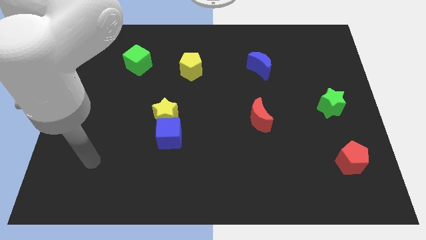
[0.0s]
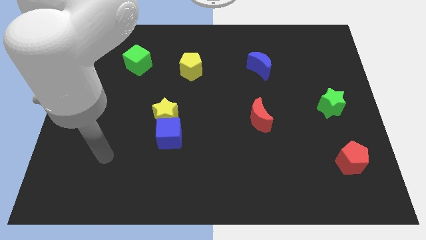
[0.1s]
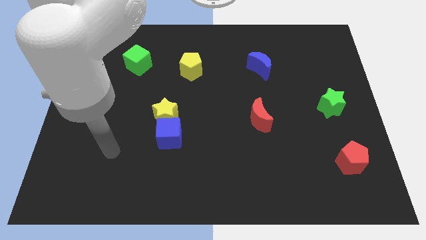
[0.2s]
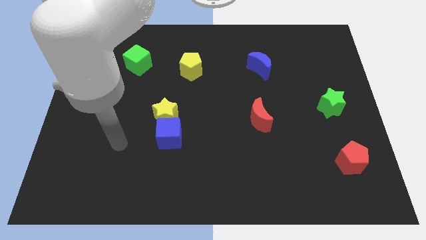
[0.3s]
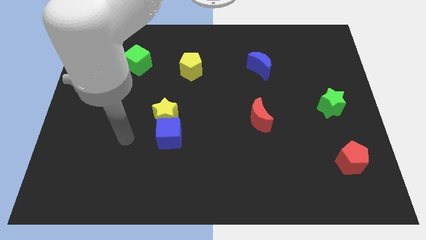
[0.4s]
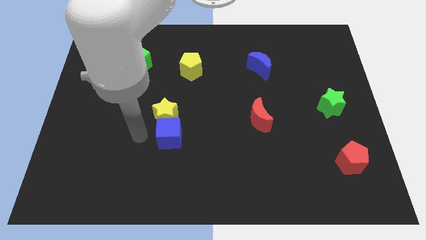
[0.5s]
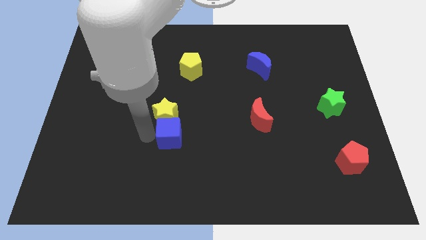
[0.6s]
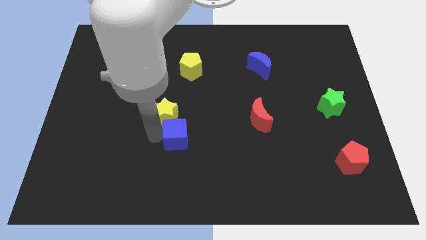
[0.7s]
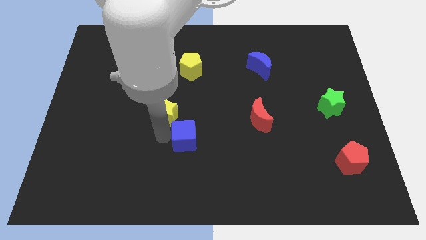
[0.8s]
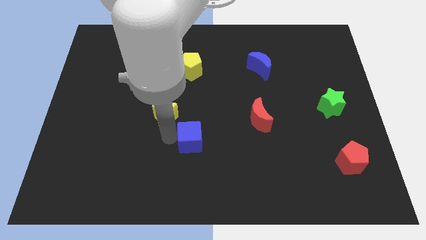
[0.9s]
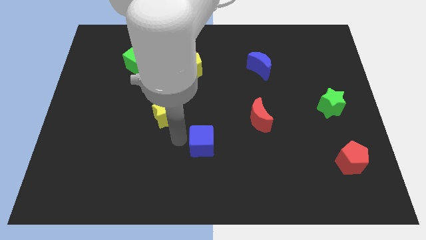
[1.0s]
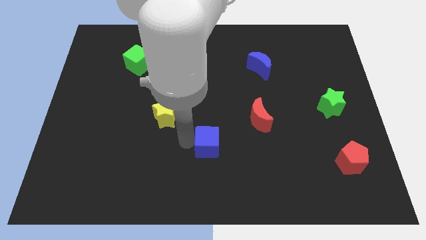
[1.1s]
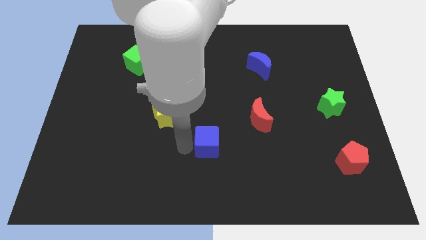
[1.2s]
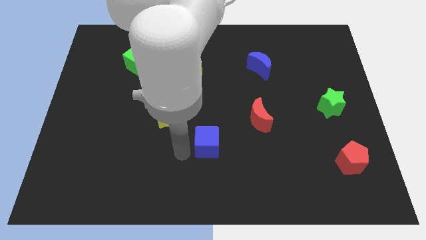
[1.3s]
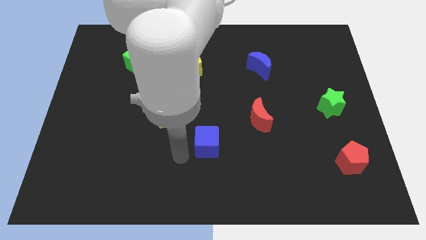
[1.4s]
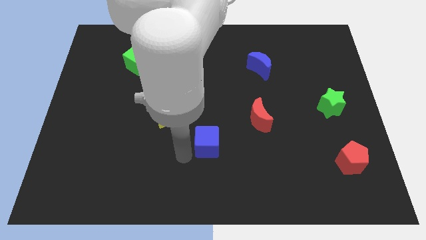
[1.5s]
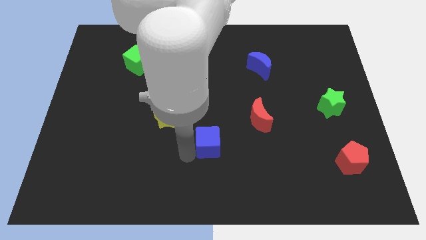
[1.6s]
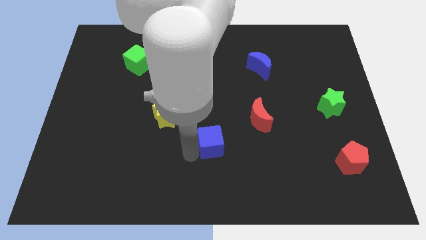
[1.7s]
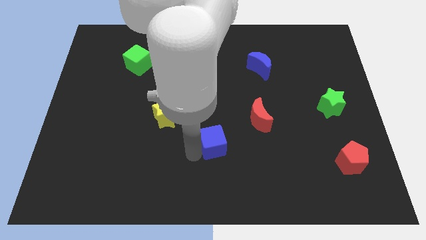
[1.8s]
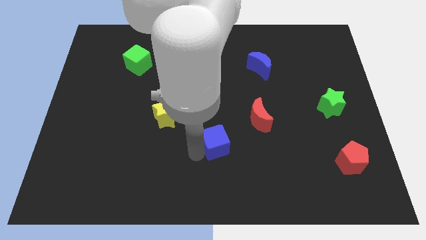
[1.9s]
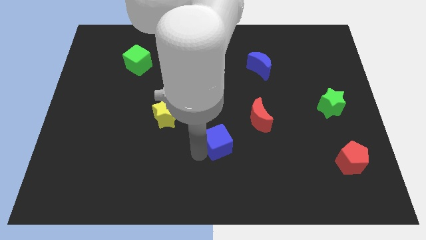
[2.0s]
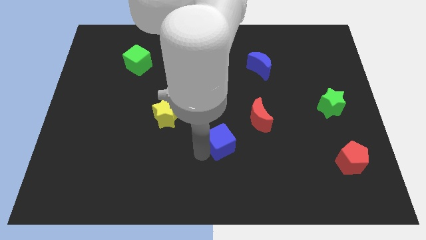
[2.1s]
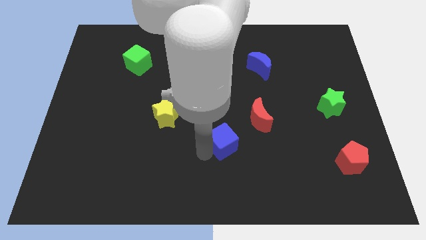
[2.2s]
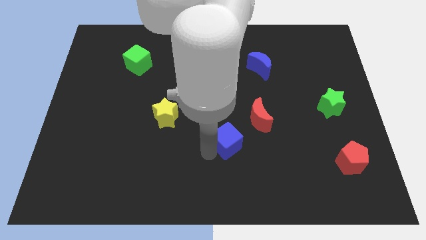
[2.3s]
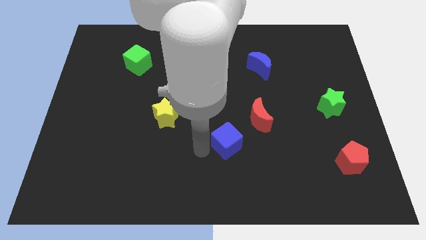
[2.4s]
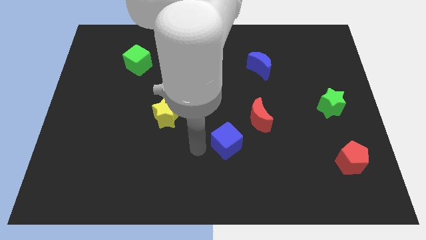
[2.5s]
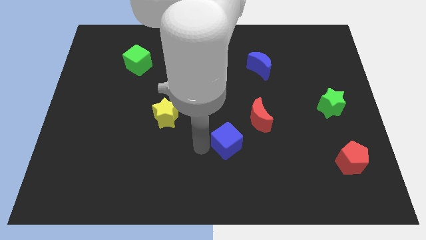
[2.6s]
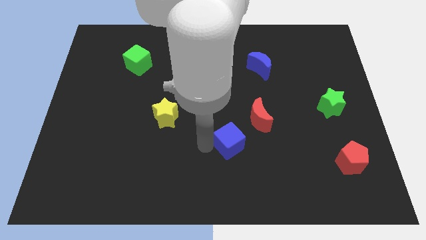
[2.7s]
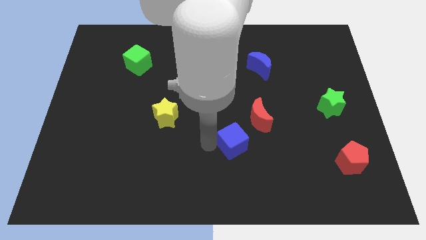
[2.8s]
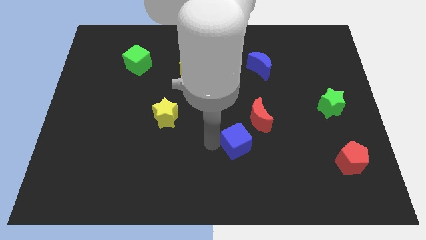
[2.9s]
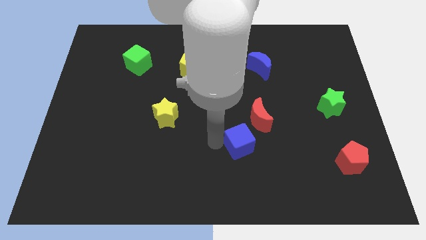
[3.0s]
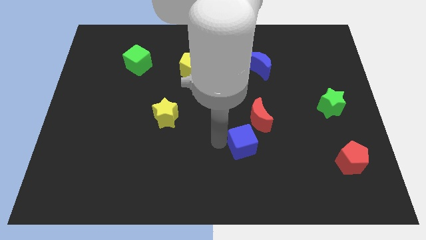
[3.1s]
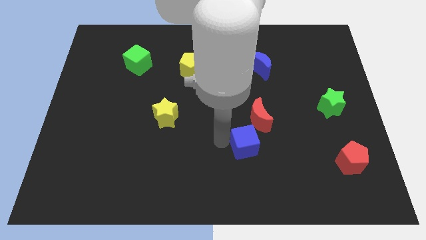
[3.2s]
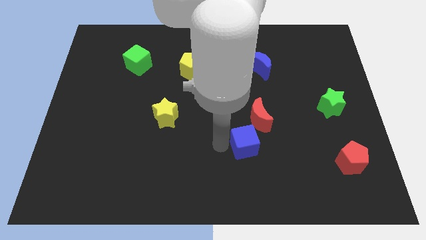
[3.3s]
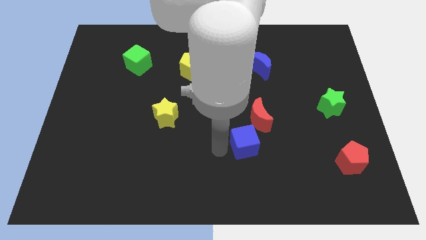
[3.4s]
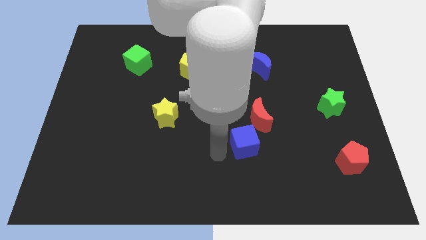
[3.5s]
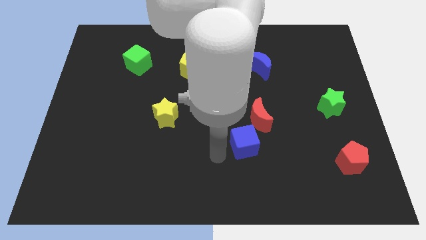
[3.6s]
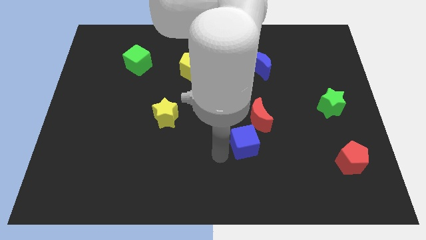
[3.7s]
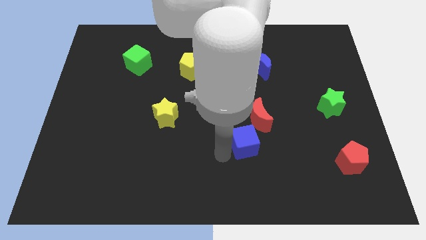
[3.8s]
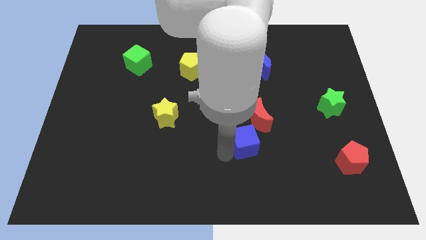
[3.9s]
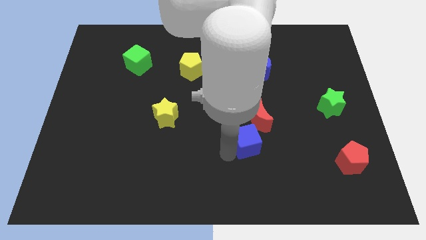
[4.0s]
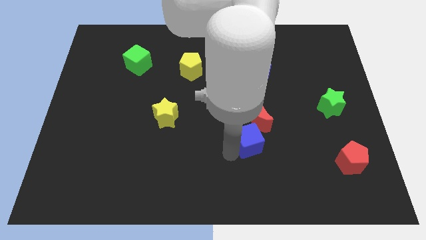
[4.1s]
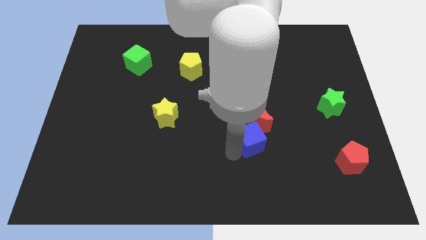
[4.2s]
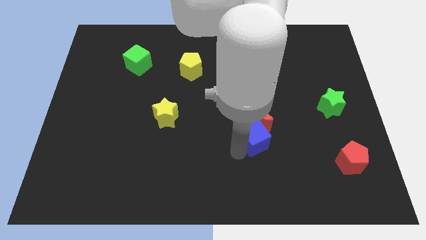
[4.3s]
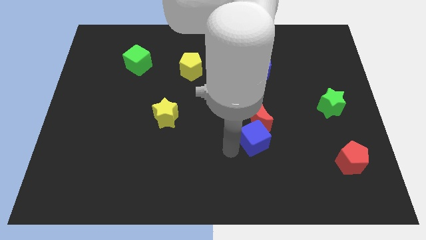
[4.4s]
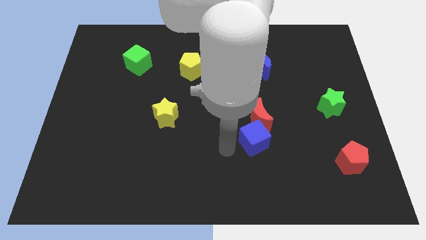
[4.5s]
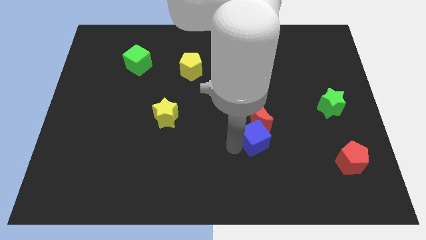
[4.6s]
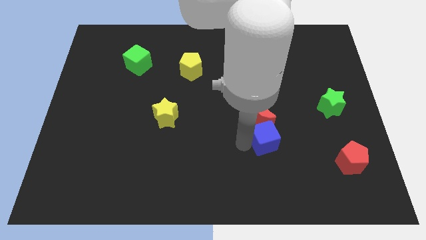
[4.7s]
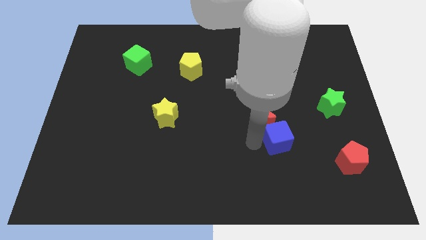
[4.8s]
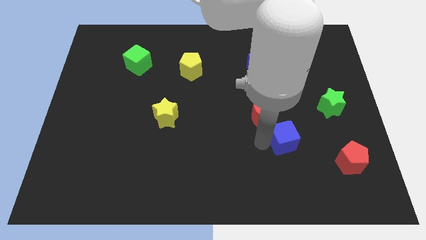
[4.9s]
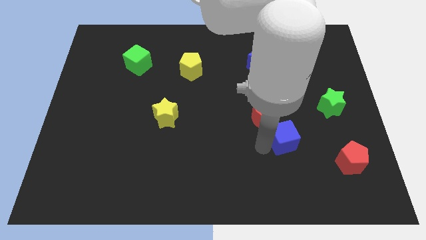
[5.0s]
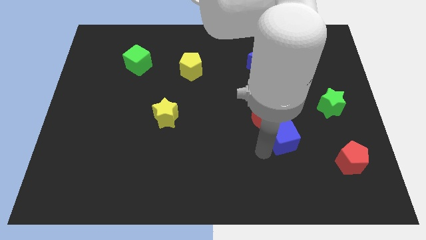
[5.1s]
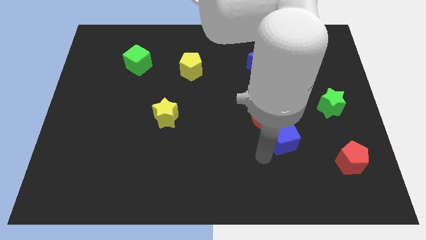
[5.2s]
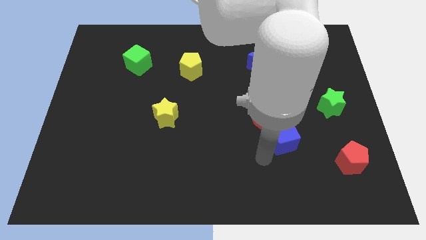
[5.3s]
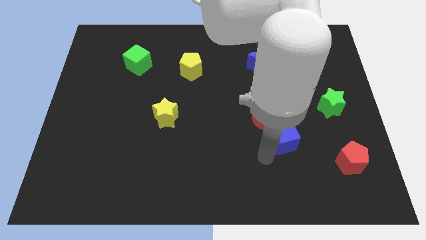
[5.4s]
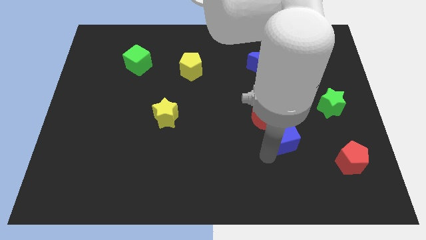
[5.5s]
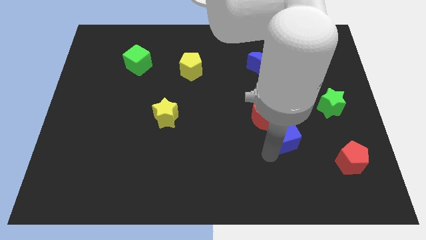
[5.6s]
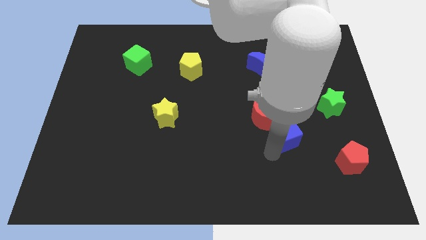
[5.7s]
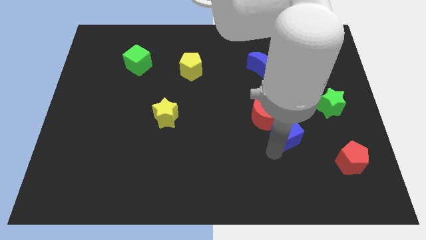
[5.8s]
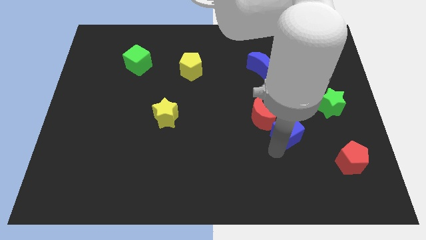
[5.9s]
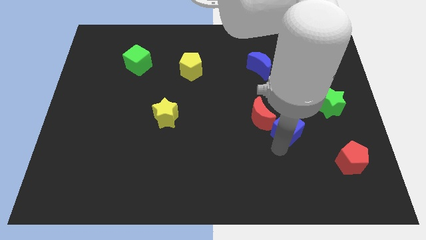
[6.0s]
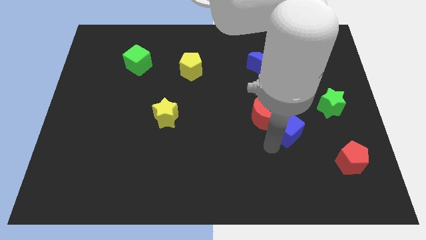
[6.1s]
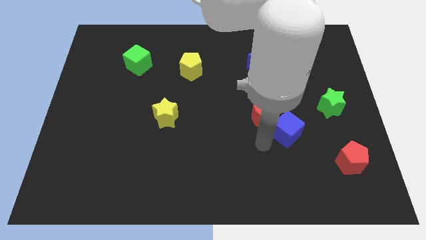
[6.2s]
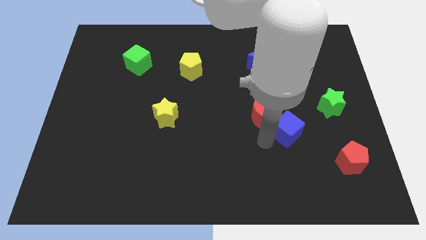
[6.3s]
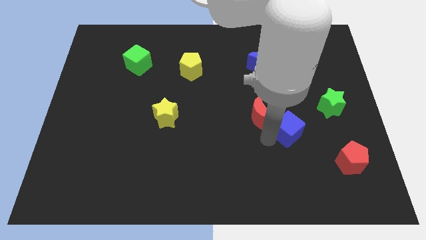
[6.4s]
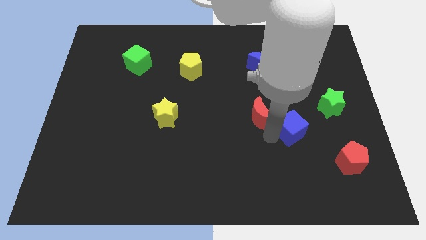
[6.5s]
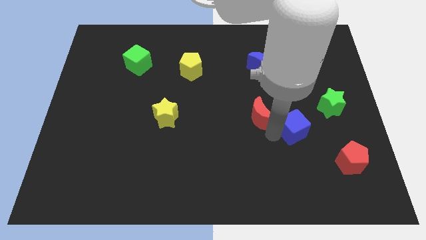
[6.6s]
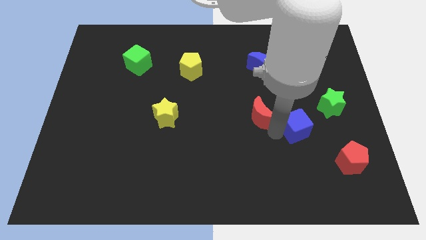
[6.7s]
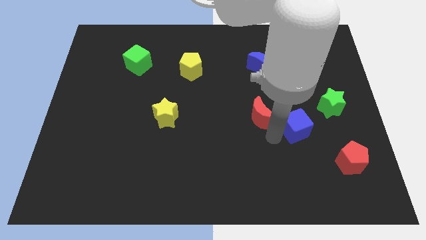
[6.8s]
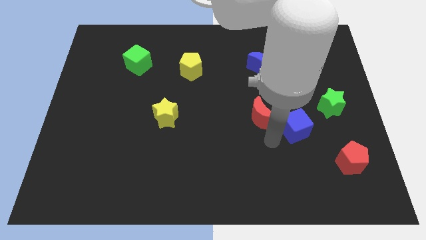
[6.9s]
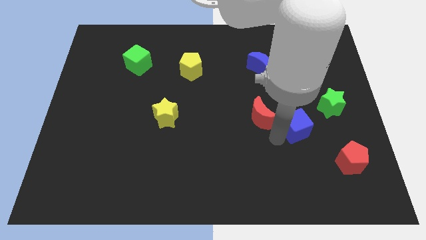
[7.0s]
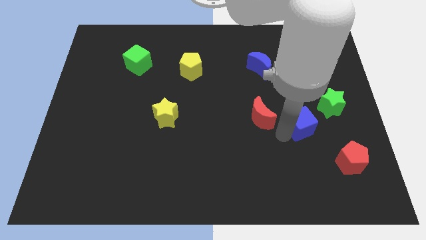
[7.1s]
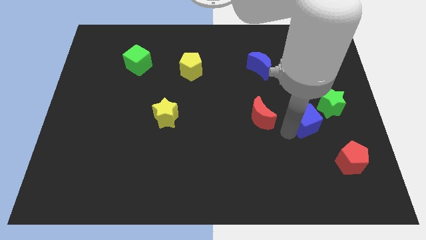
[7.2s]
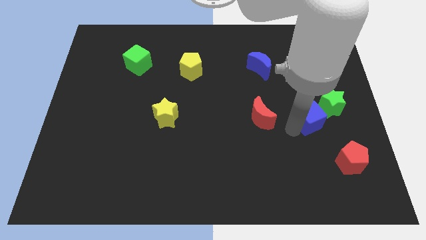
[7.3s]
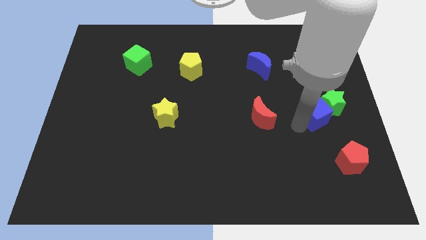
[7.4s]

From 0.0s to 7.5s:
slide the blue cube towards the green star
